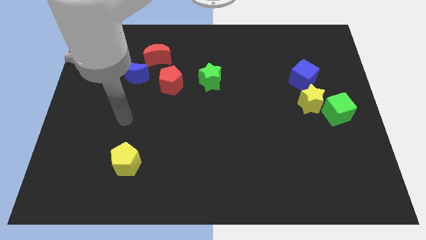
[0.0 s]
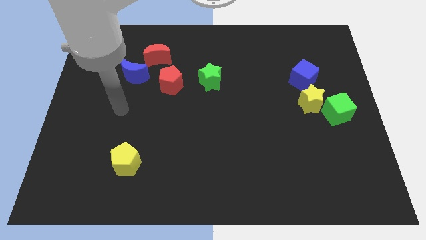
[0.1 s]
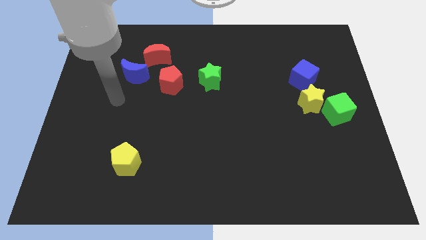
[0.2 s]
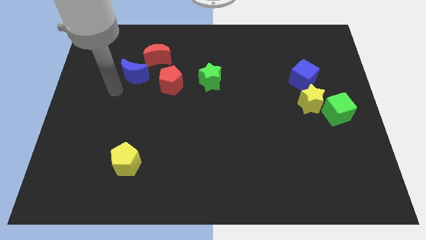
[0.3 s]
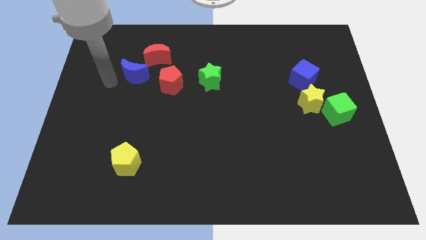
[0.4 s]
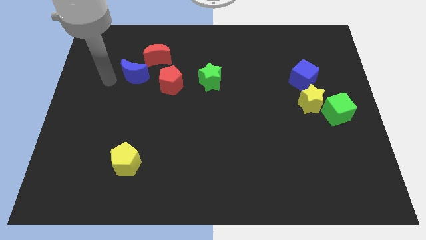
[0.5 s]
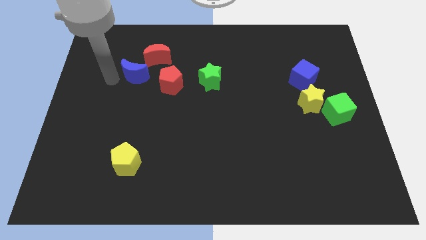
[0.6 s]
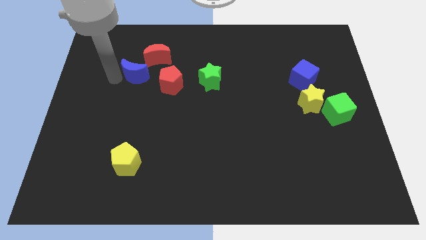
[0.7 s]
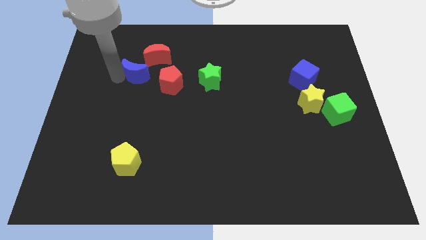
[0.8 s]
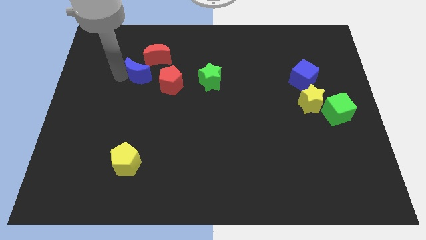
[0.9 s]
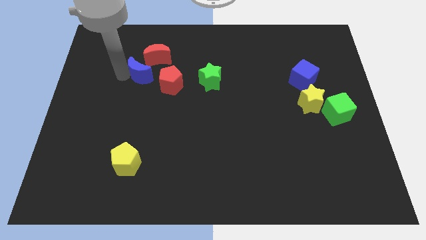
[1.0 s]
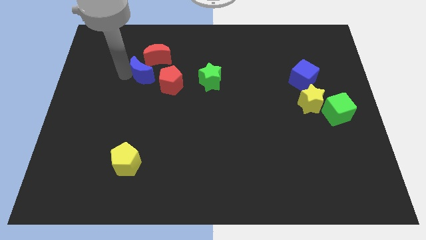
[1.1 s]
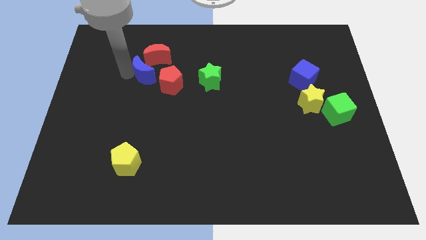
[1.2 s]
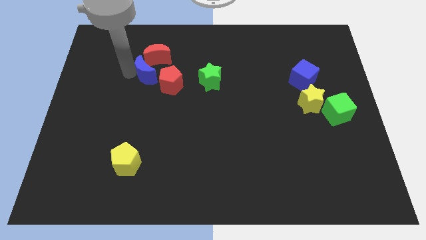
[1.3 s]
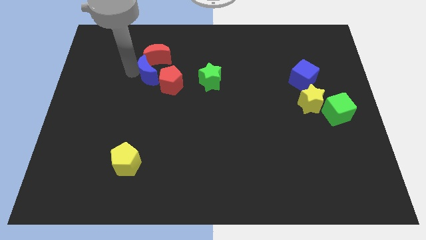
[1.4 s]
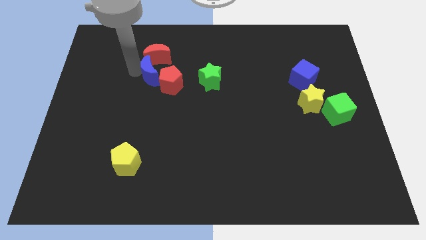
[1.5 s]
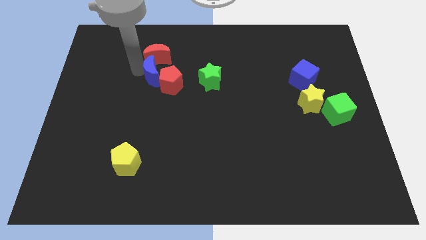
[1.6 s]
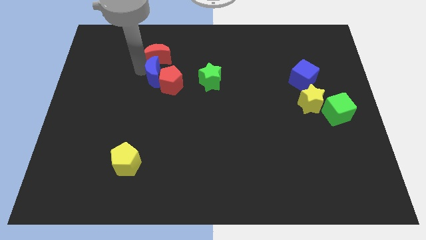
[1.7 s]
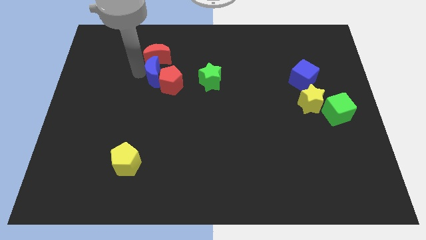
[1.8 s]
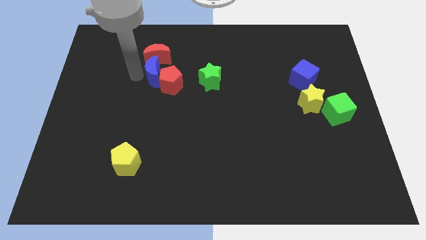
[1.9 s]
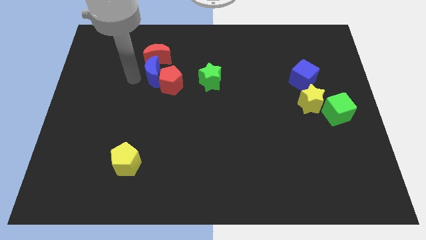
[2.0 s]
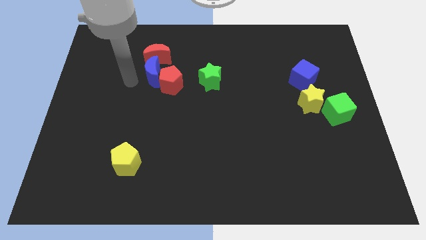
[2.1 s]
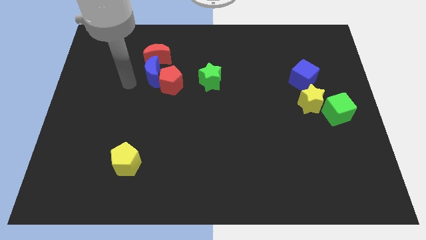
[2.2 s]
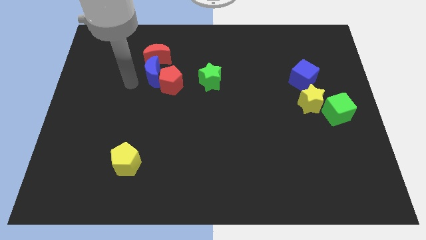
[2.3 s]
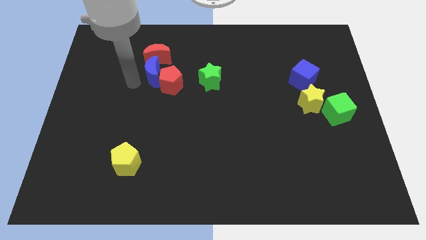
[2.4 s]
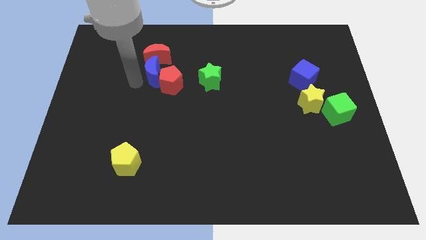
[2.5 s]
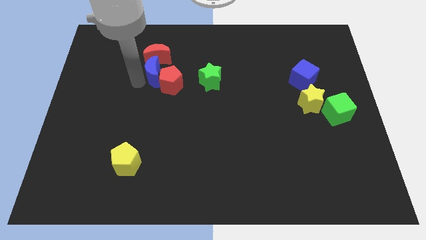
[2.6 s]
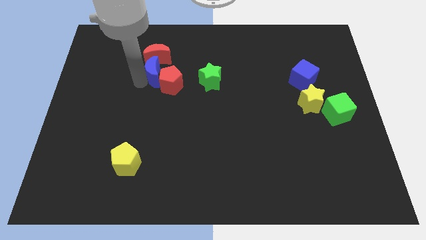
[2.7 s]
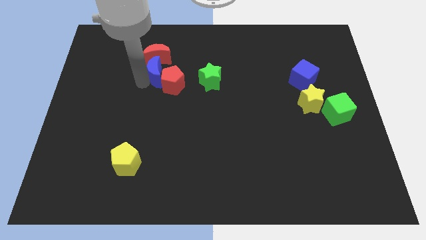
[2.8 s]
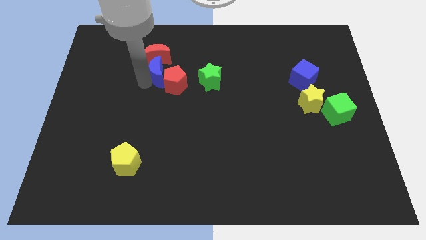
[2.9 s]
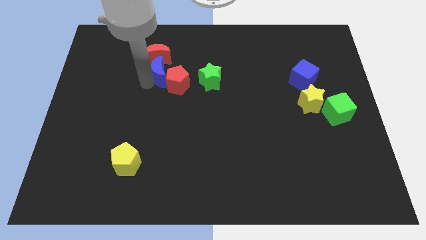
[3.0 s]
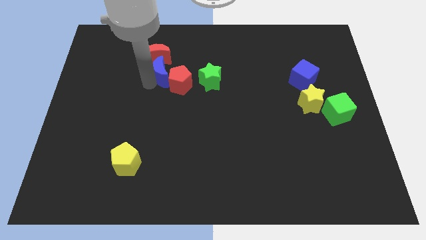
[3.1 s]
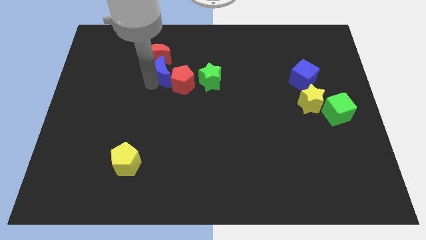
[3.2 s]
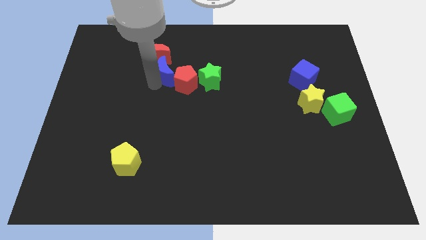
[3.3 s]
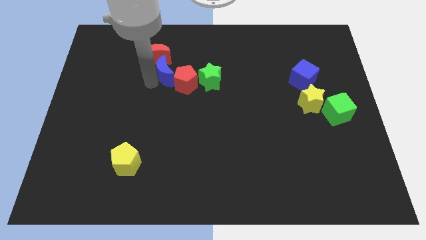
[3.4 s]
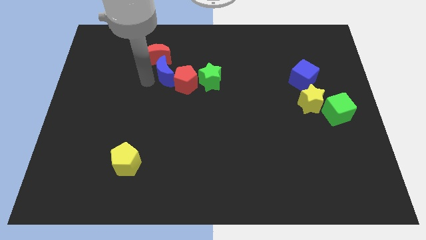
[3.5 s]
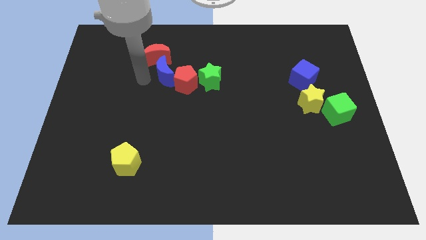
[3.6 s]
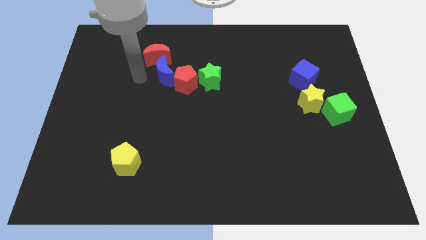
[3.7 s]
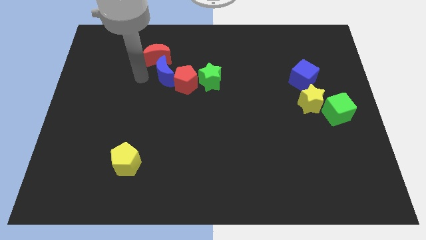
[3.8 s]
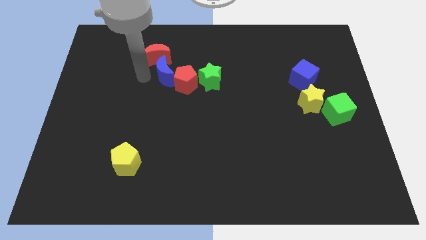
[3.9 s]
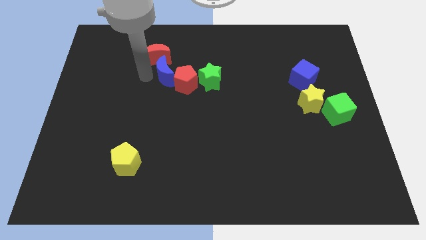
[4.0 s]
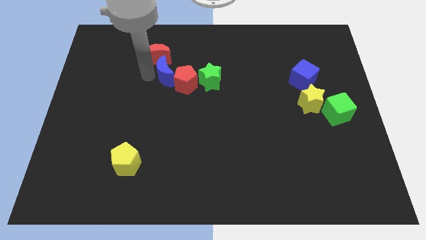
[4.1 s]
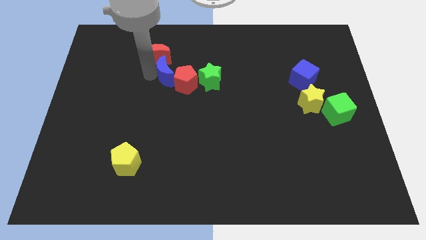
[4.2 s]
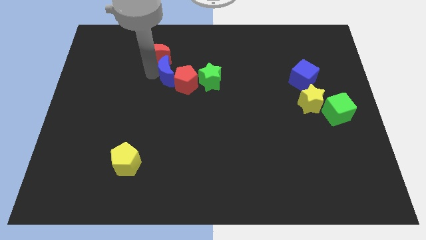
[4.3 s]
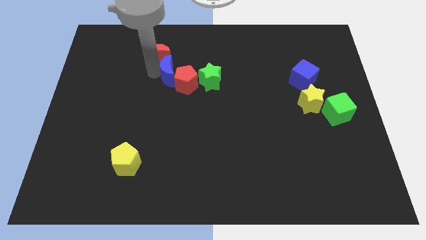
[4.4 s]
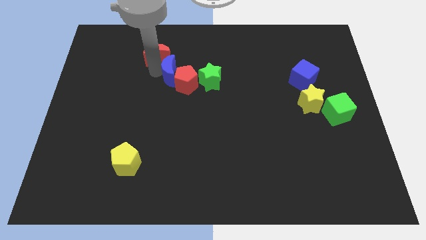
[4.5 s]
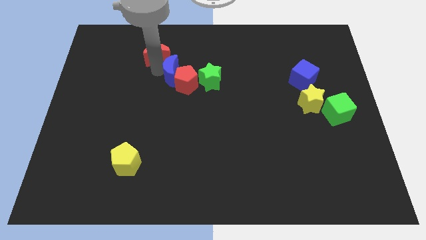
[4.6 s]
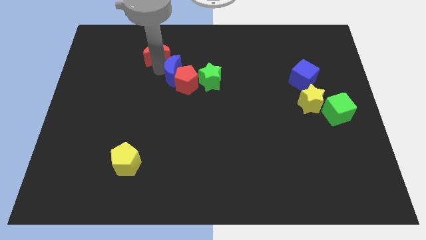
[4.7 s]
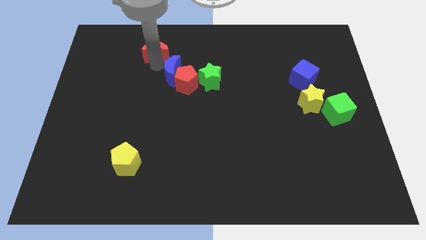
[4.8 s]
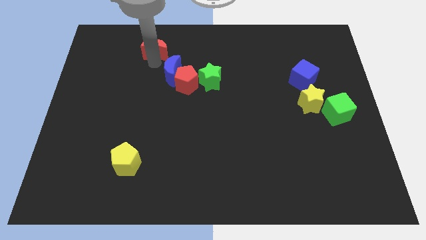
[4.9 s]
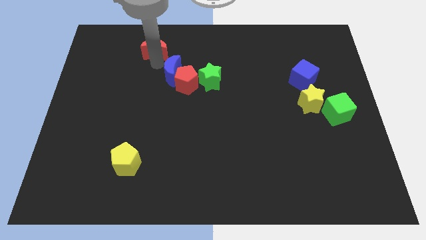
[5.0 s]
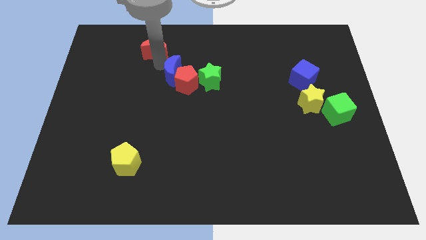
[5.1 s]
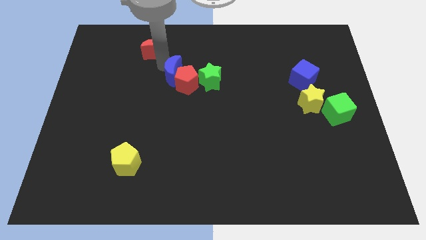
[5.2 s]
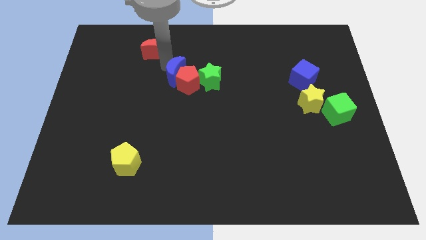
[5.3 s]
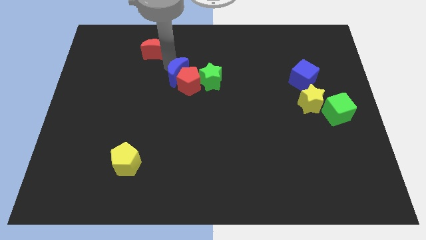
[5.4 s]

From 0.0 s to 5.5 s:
move the blue moon to the center of the board
